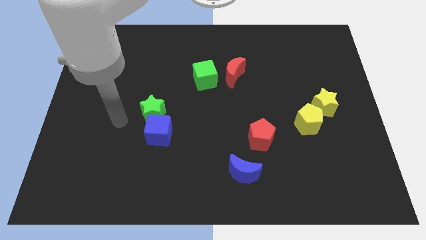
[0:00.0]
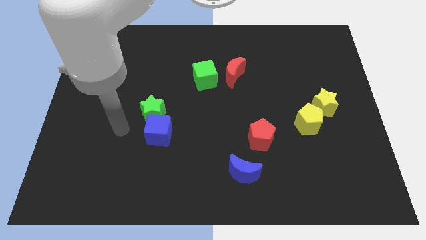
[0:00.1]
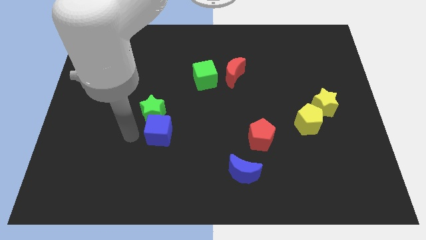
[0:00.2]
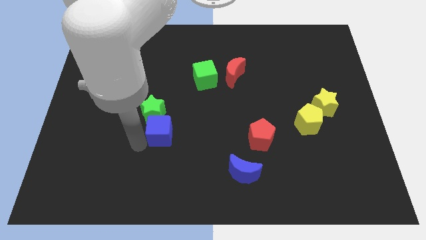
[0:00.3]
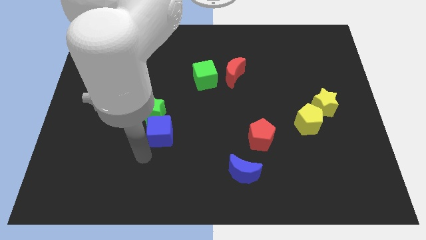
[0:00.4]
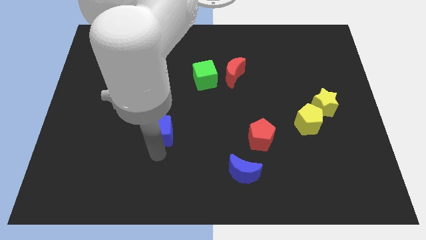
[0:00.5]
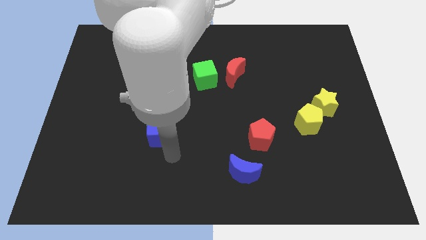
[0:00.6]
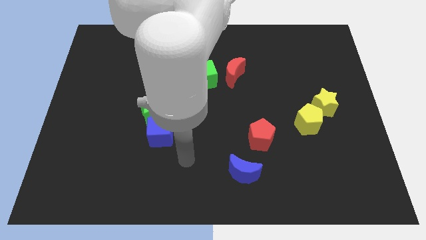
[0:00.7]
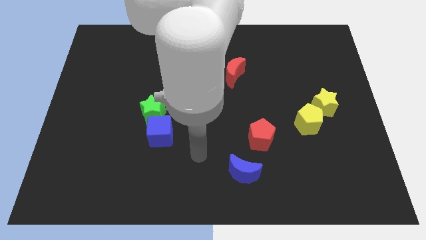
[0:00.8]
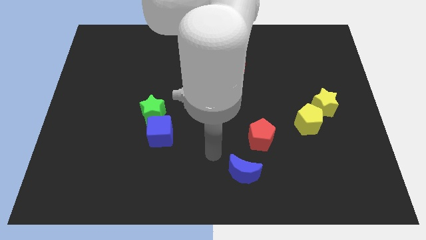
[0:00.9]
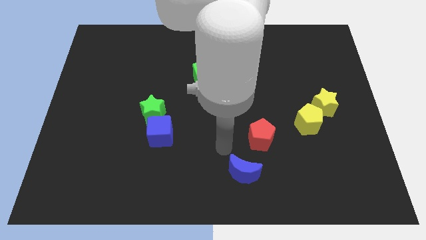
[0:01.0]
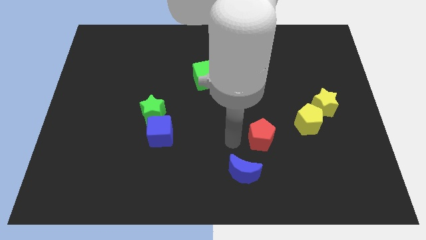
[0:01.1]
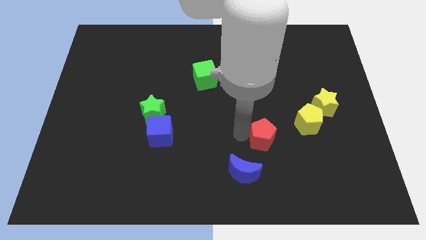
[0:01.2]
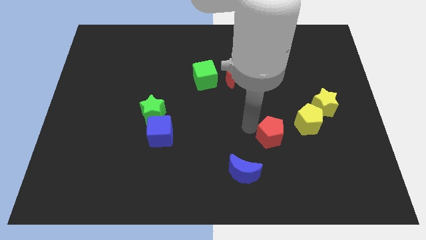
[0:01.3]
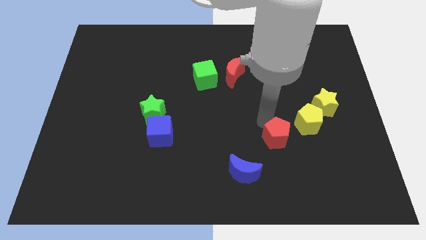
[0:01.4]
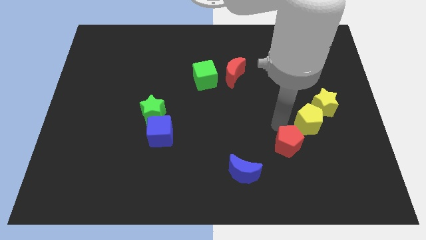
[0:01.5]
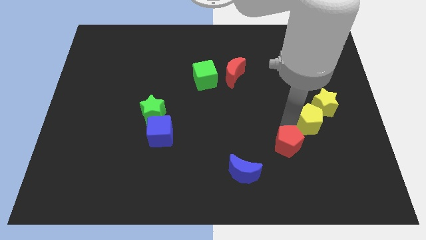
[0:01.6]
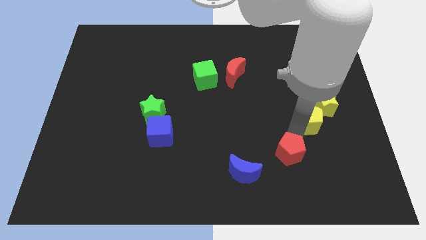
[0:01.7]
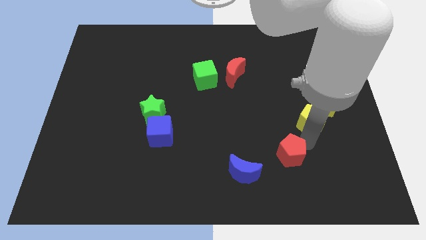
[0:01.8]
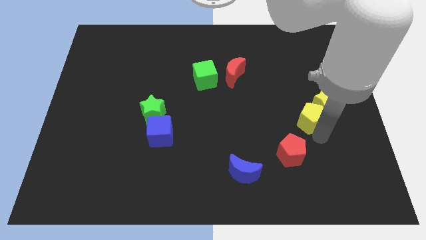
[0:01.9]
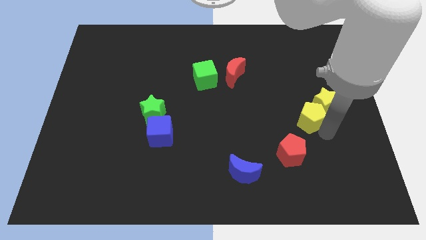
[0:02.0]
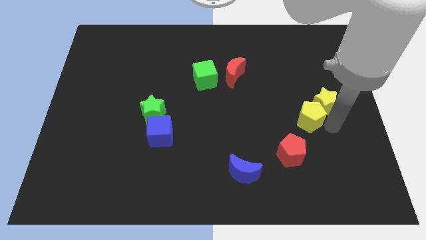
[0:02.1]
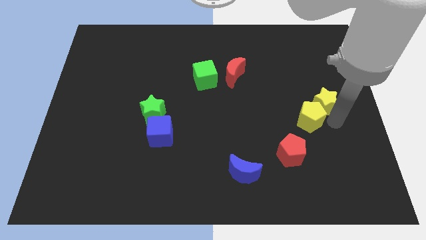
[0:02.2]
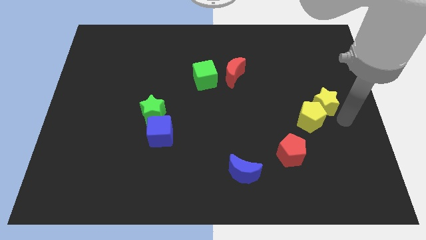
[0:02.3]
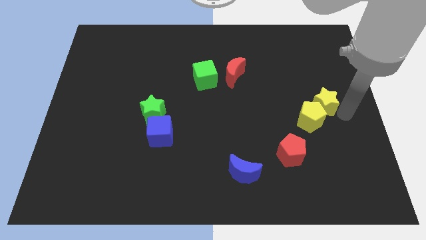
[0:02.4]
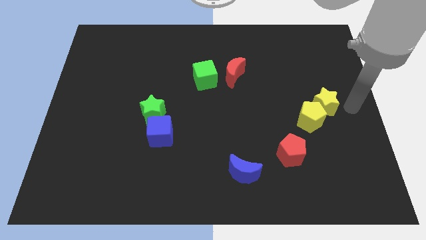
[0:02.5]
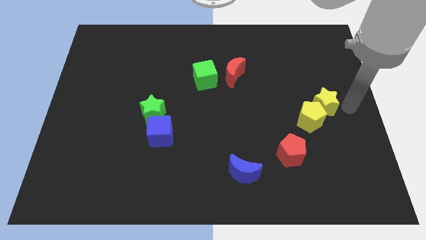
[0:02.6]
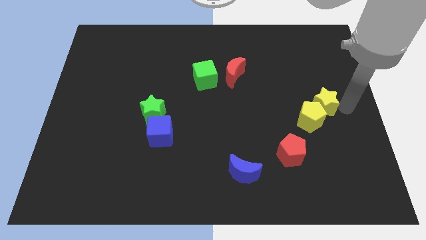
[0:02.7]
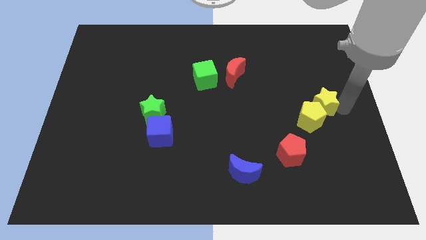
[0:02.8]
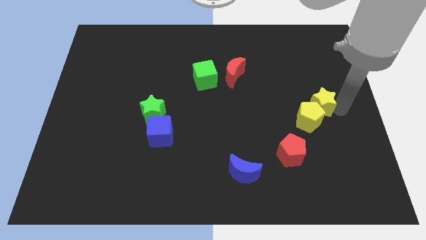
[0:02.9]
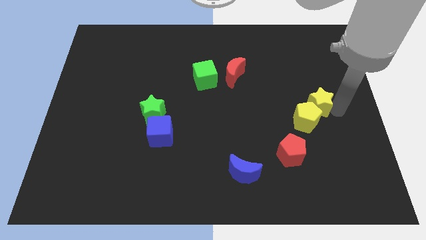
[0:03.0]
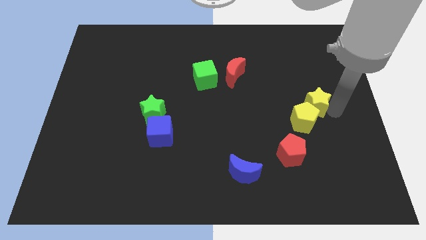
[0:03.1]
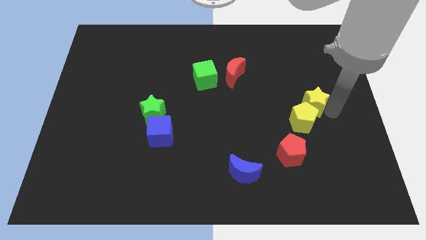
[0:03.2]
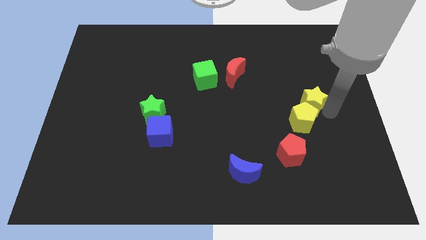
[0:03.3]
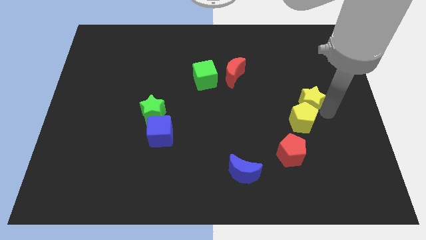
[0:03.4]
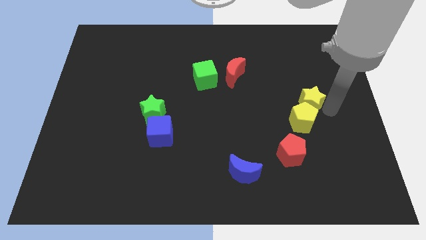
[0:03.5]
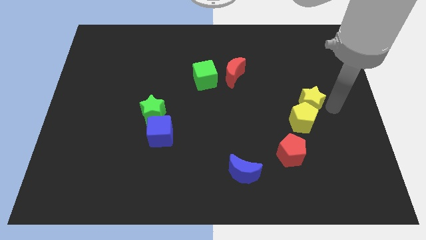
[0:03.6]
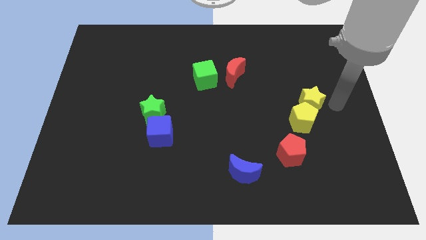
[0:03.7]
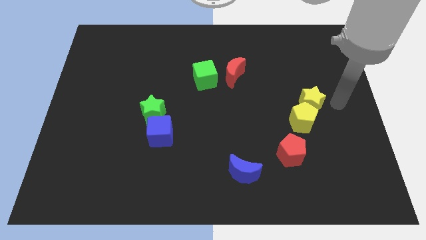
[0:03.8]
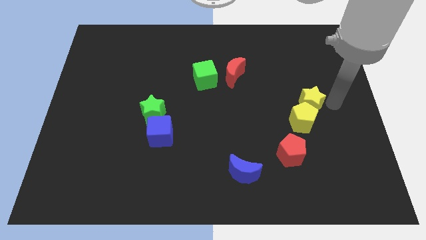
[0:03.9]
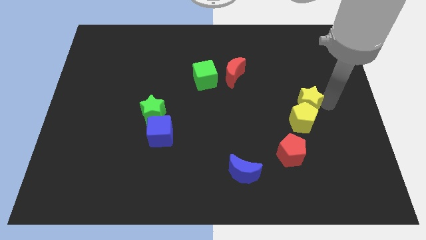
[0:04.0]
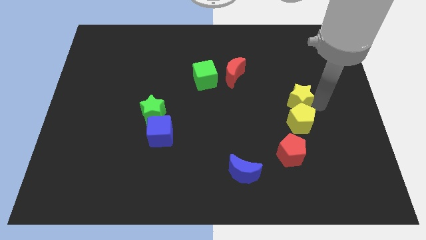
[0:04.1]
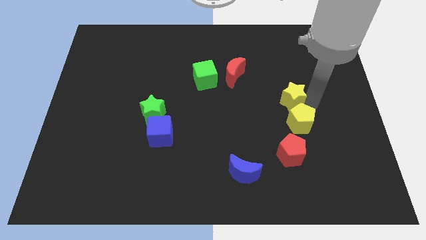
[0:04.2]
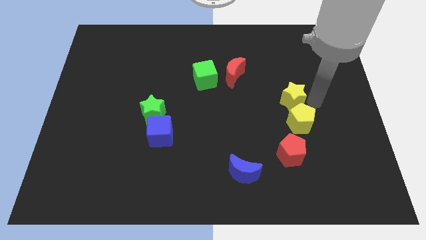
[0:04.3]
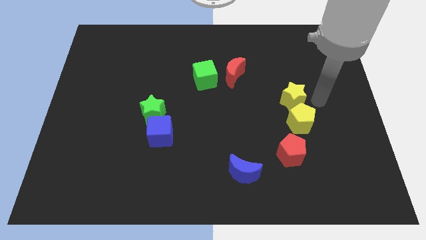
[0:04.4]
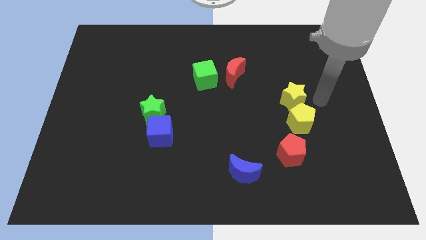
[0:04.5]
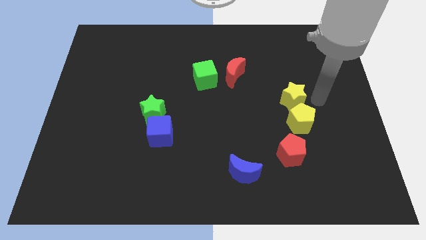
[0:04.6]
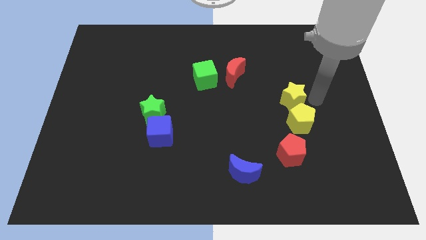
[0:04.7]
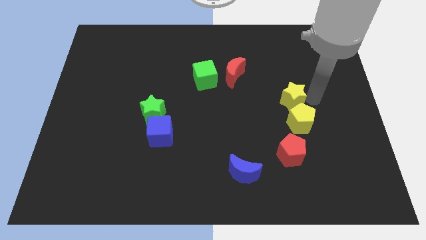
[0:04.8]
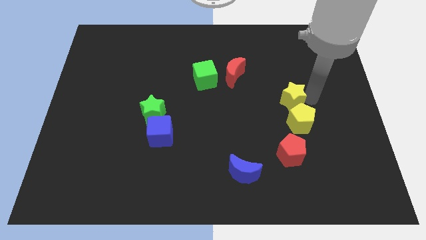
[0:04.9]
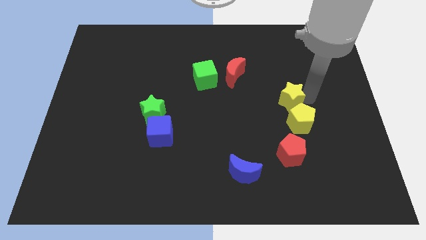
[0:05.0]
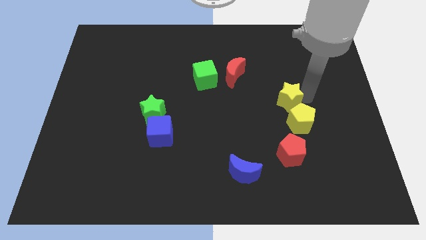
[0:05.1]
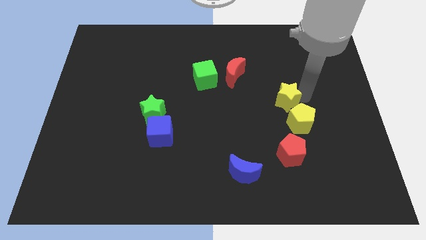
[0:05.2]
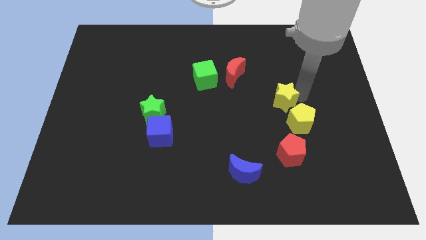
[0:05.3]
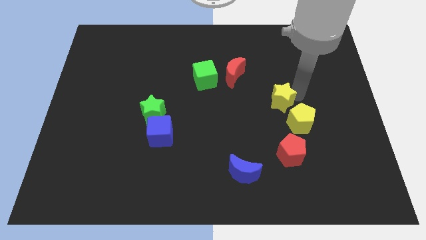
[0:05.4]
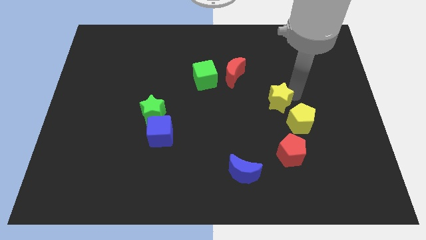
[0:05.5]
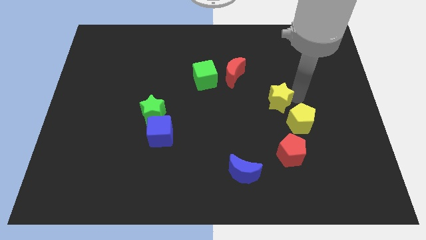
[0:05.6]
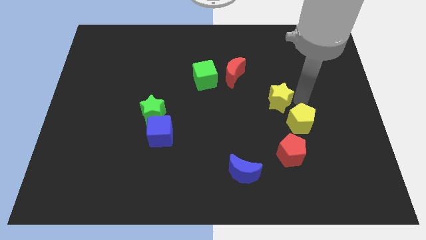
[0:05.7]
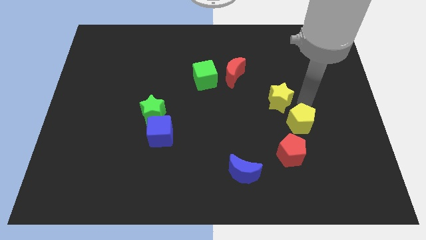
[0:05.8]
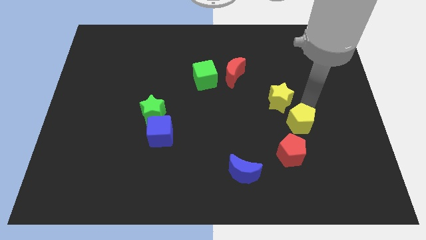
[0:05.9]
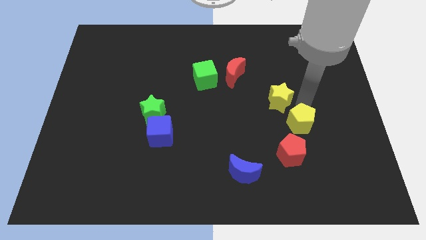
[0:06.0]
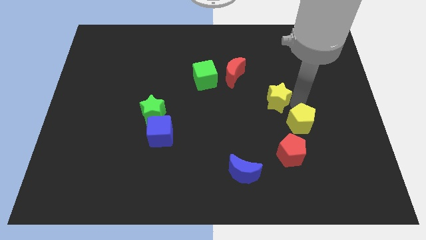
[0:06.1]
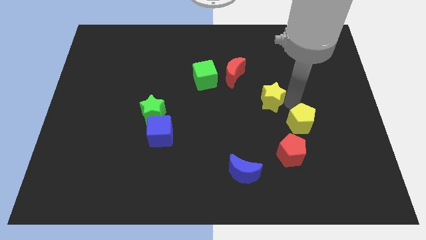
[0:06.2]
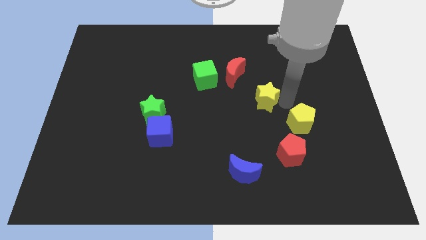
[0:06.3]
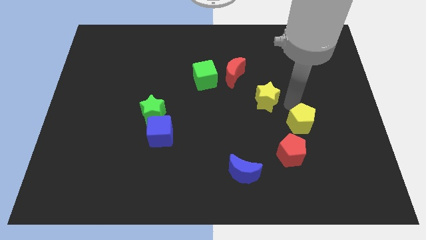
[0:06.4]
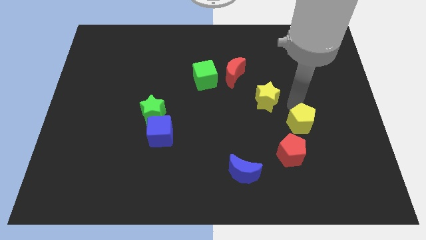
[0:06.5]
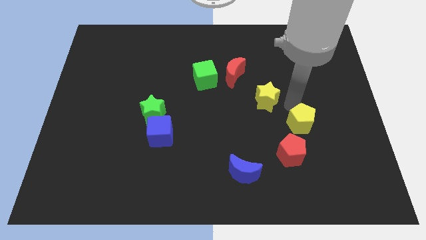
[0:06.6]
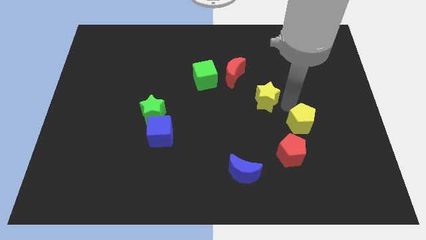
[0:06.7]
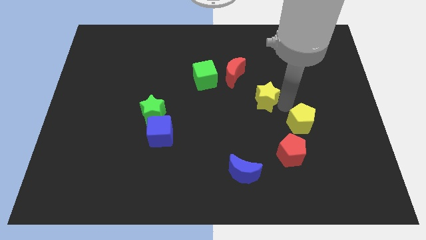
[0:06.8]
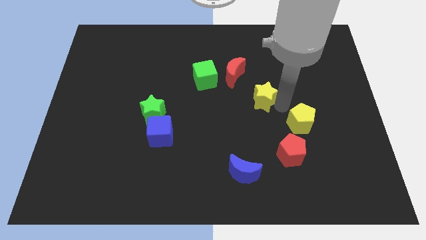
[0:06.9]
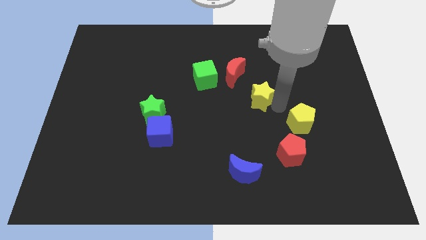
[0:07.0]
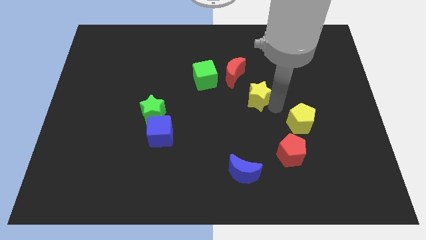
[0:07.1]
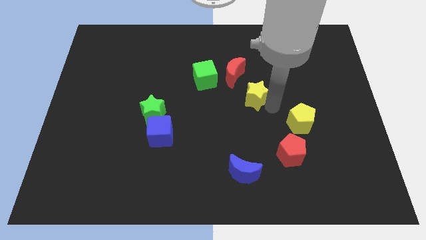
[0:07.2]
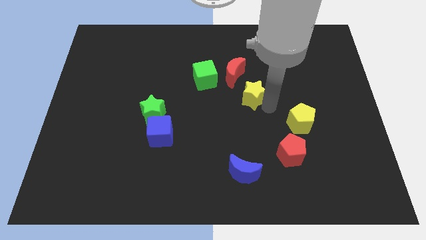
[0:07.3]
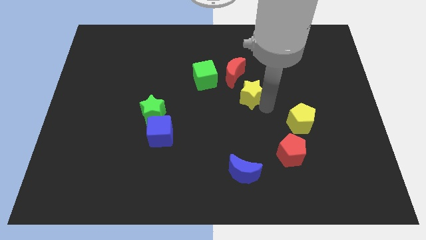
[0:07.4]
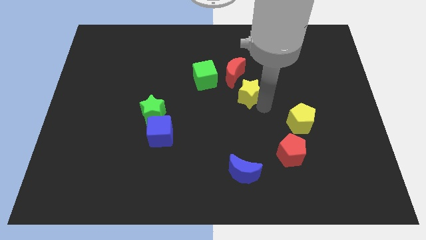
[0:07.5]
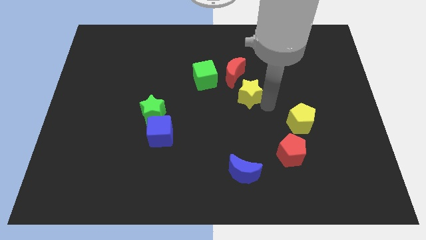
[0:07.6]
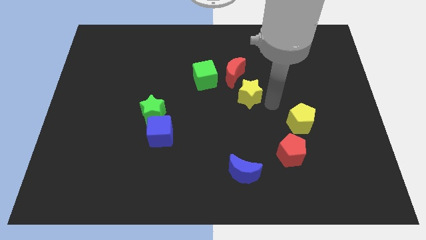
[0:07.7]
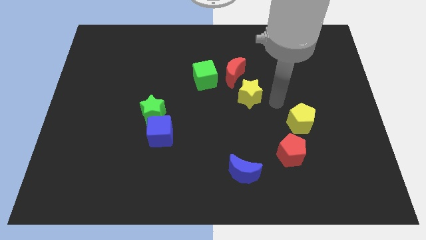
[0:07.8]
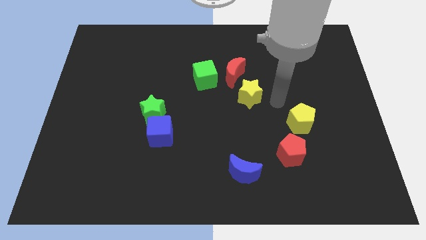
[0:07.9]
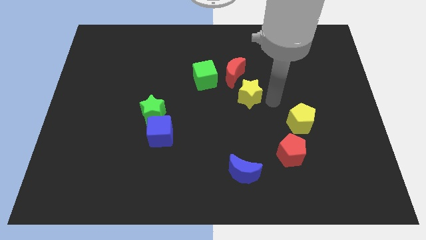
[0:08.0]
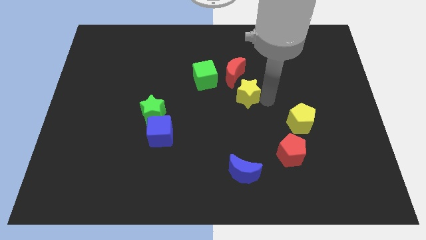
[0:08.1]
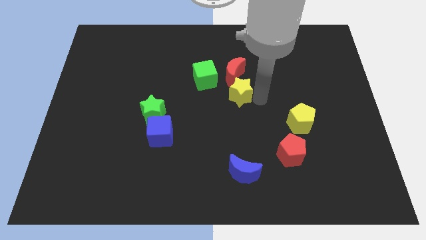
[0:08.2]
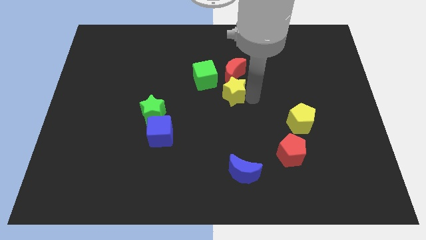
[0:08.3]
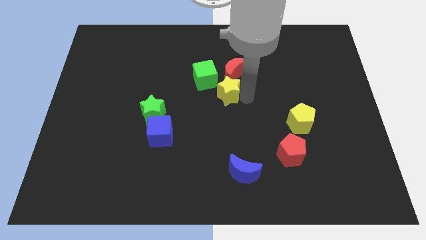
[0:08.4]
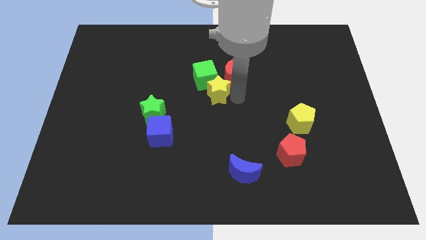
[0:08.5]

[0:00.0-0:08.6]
push the yellow star towards the green cube
